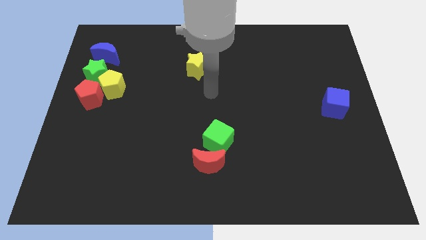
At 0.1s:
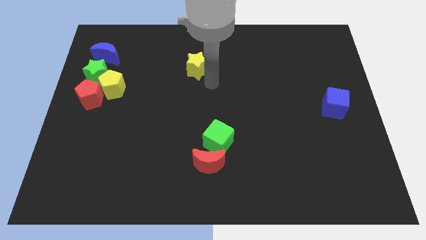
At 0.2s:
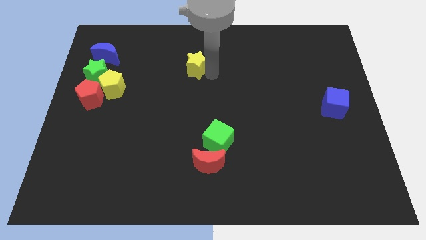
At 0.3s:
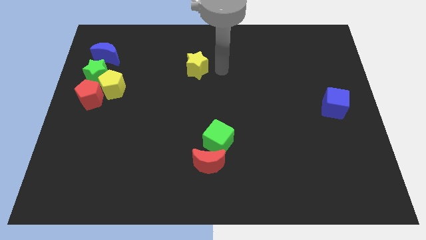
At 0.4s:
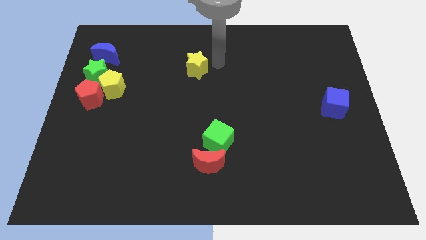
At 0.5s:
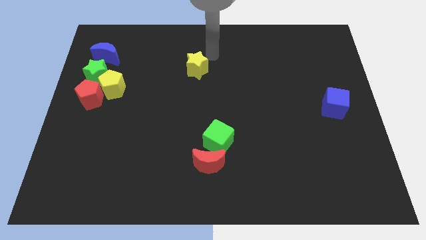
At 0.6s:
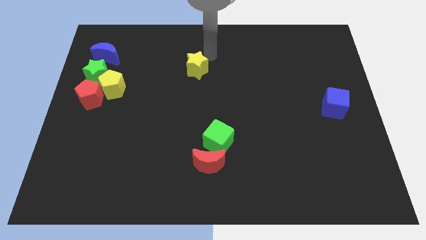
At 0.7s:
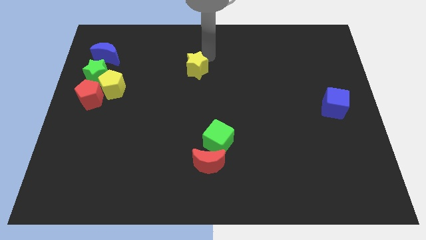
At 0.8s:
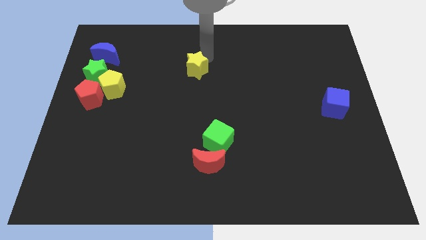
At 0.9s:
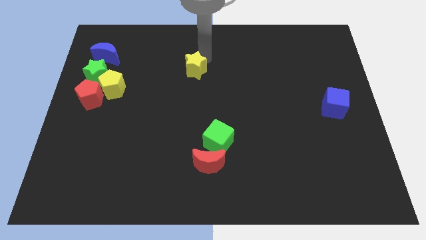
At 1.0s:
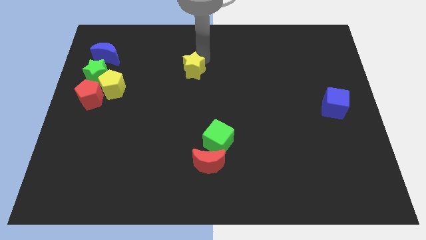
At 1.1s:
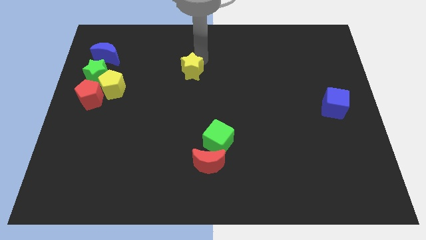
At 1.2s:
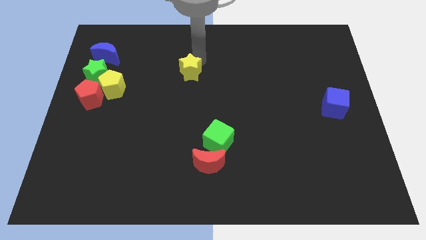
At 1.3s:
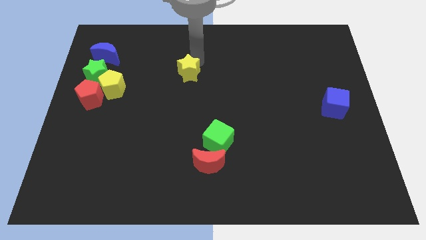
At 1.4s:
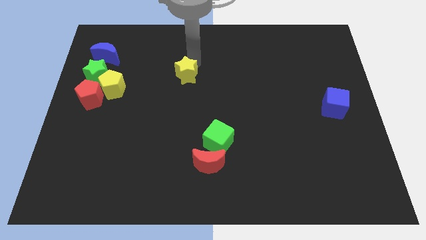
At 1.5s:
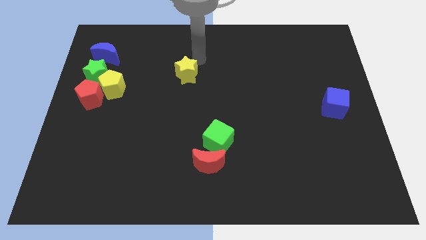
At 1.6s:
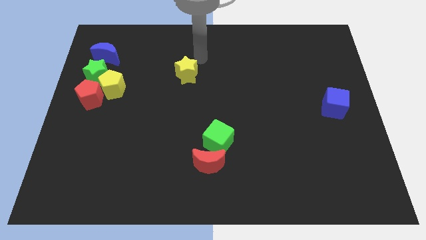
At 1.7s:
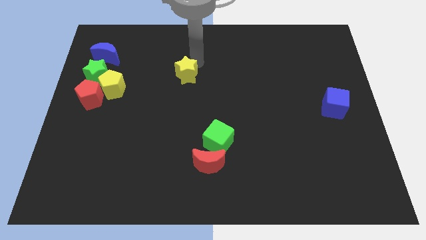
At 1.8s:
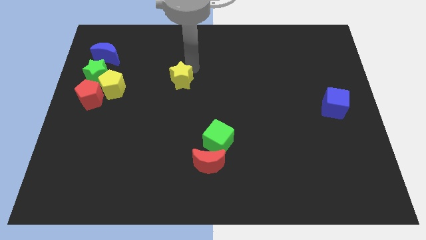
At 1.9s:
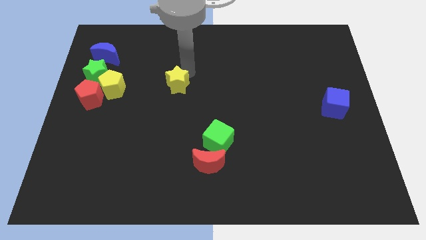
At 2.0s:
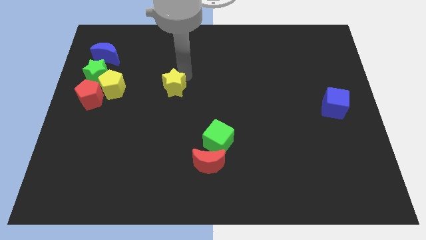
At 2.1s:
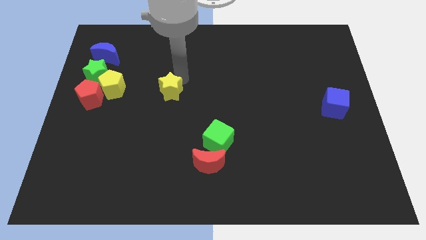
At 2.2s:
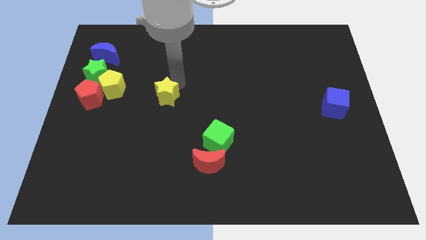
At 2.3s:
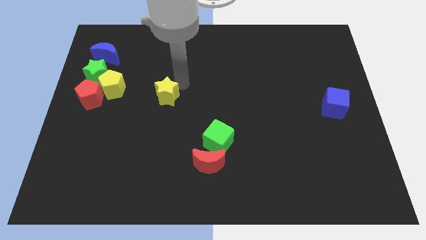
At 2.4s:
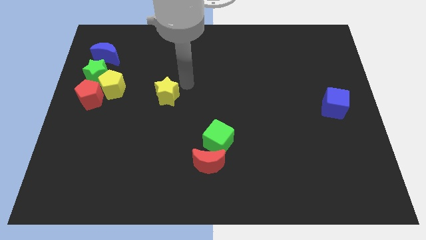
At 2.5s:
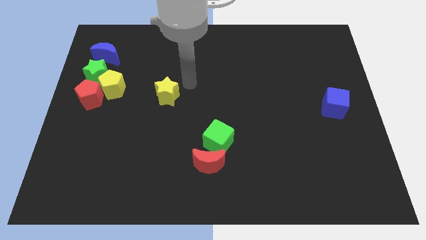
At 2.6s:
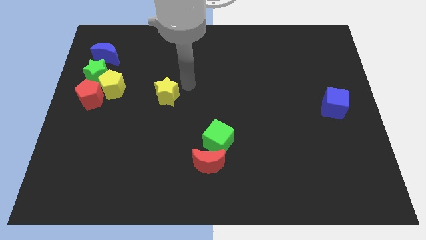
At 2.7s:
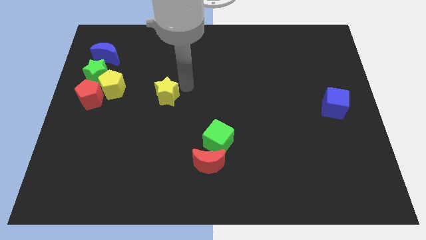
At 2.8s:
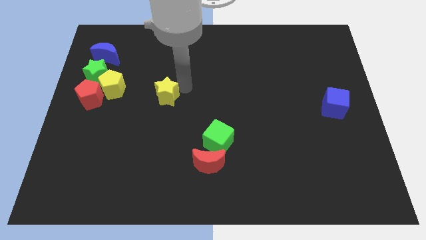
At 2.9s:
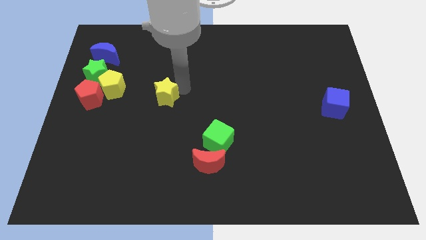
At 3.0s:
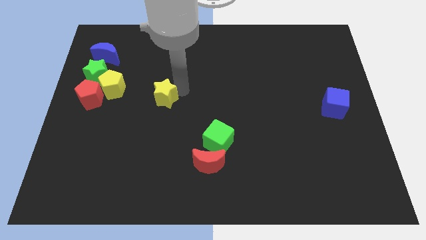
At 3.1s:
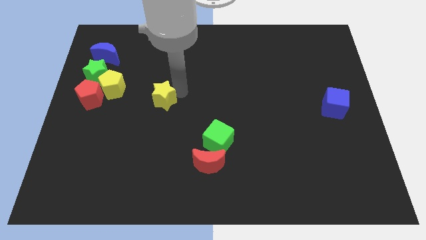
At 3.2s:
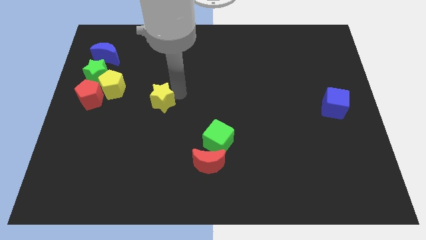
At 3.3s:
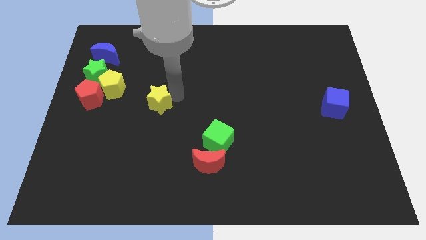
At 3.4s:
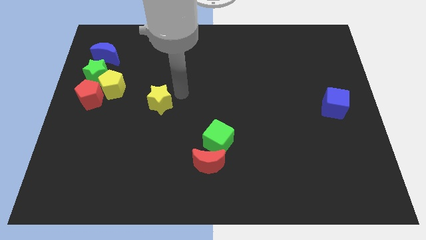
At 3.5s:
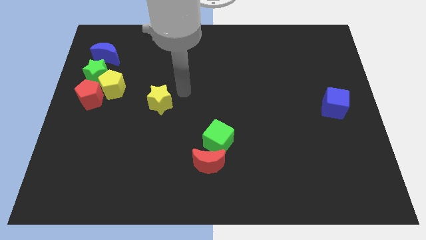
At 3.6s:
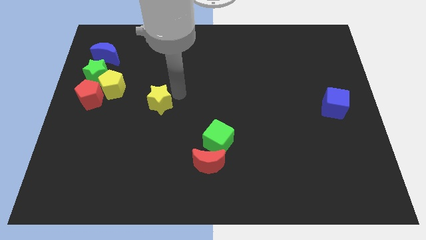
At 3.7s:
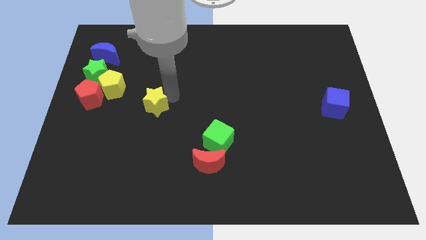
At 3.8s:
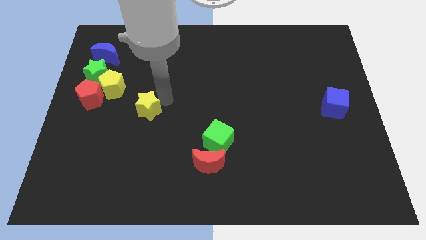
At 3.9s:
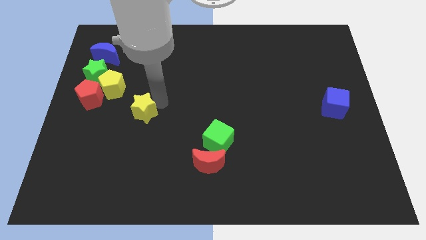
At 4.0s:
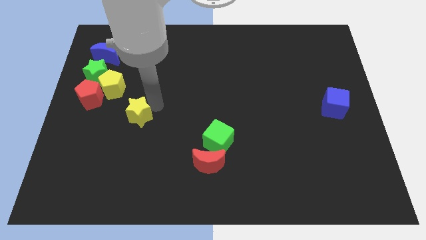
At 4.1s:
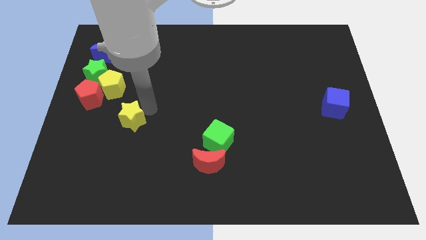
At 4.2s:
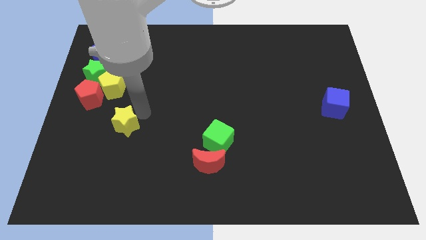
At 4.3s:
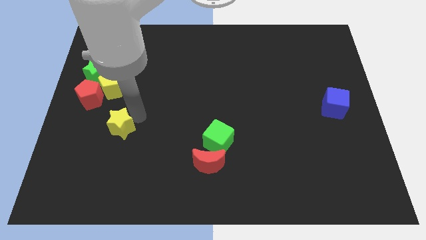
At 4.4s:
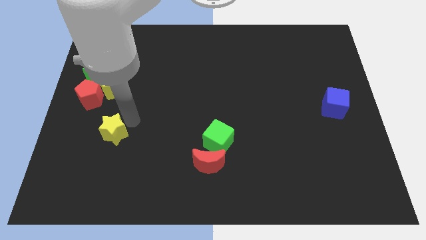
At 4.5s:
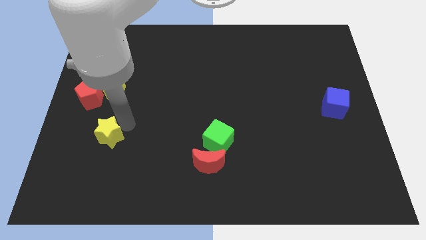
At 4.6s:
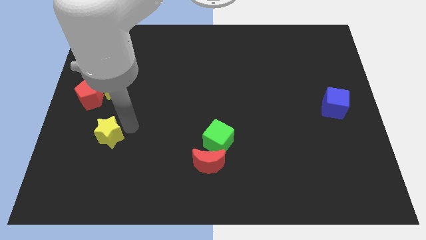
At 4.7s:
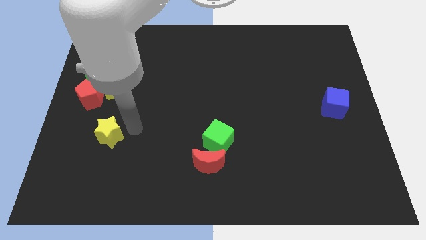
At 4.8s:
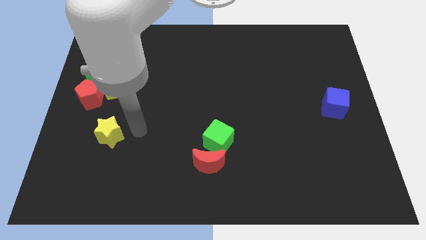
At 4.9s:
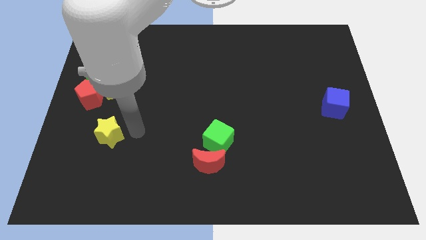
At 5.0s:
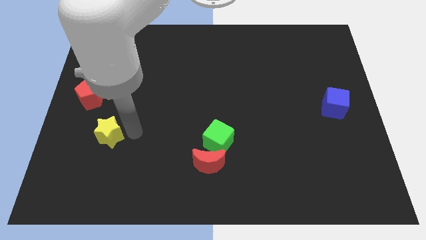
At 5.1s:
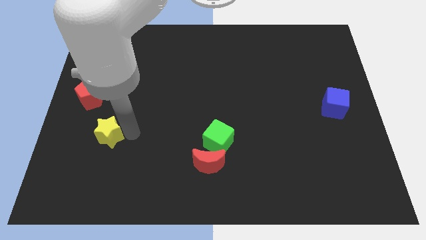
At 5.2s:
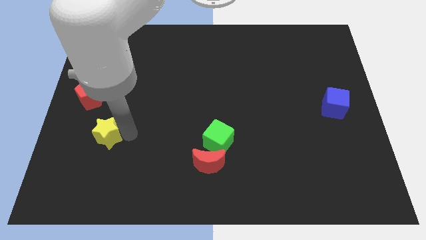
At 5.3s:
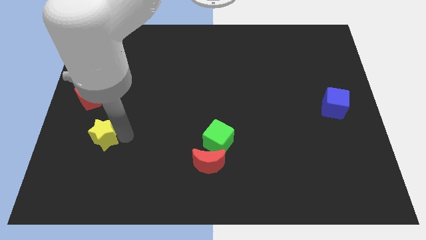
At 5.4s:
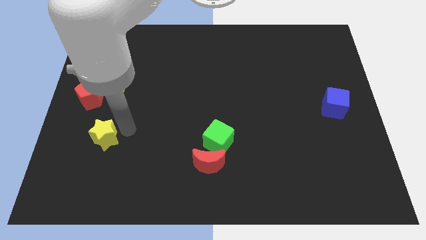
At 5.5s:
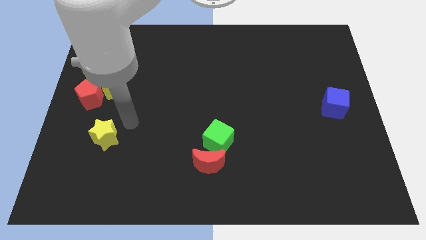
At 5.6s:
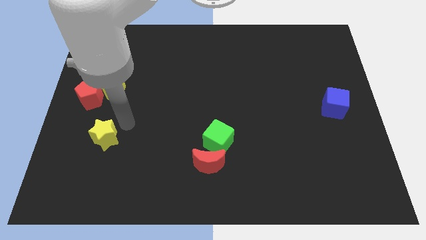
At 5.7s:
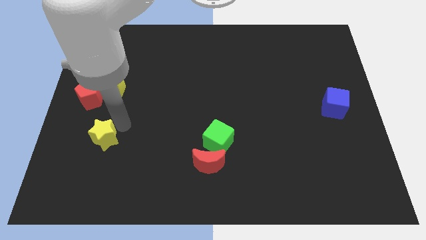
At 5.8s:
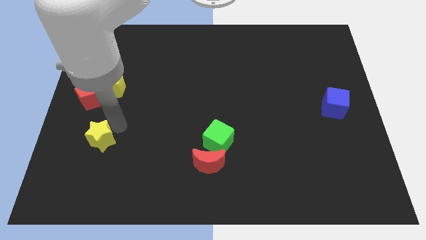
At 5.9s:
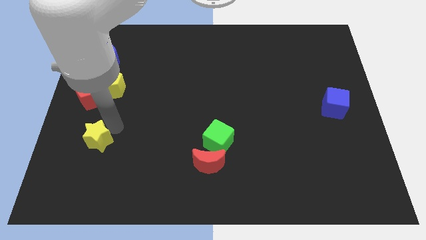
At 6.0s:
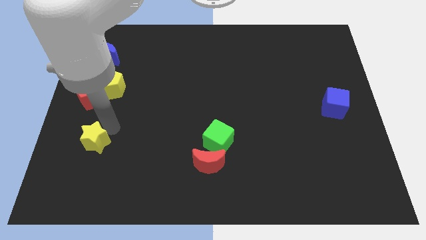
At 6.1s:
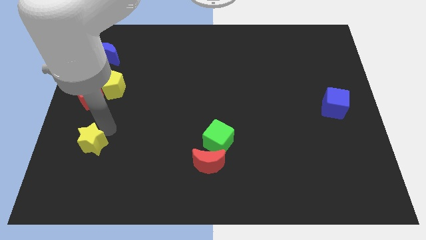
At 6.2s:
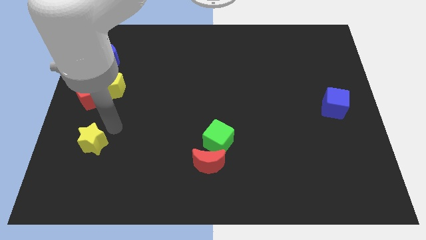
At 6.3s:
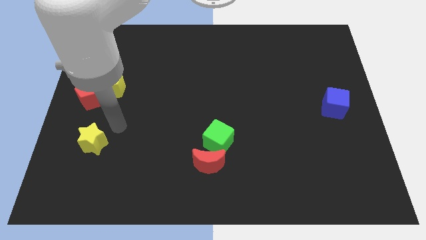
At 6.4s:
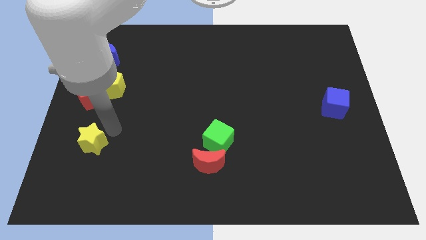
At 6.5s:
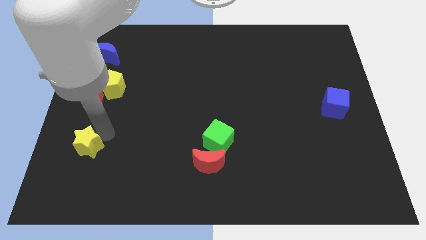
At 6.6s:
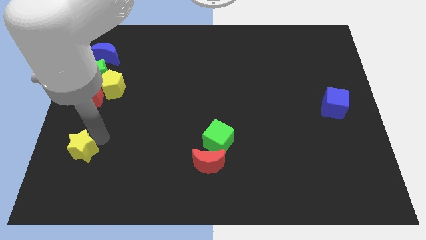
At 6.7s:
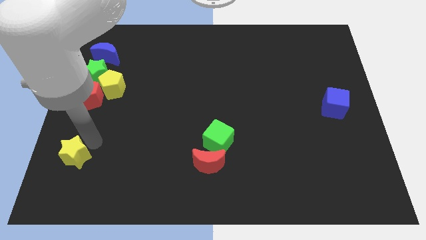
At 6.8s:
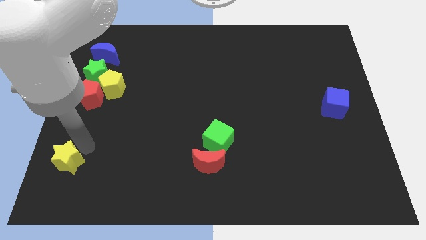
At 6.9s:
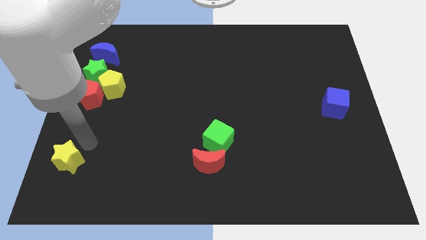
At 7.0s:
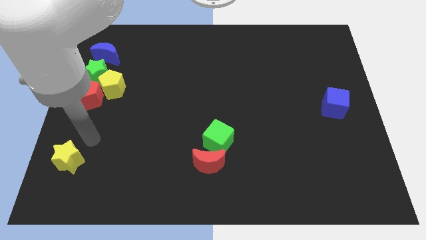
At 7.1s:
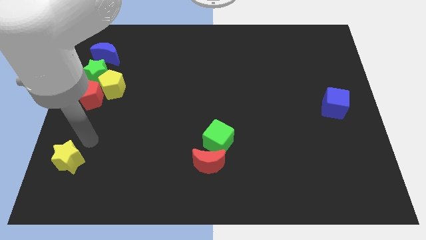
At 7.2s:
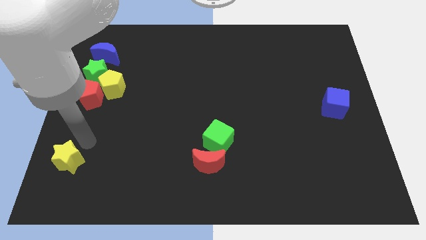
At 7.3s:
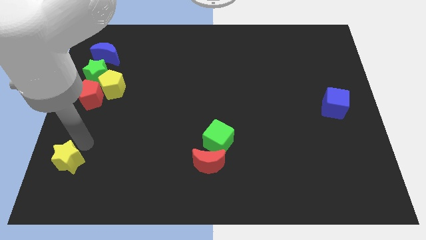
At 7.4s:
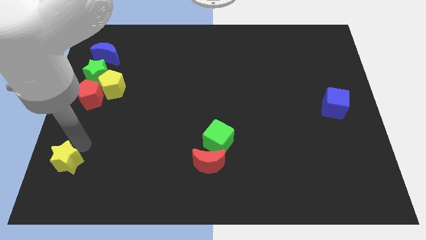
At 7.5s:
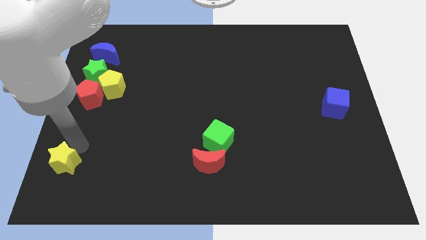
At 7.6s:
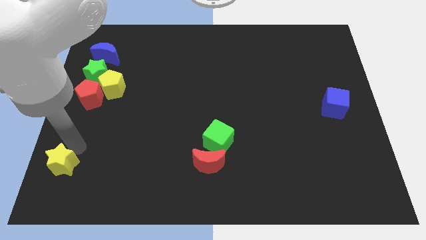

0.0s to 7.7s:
move the yellow star to the bottom left of the board
